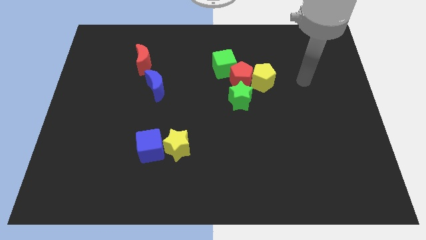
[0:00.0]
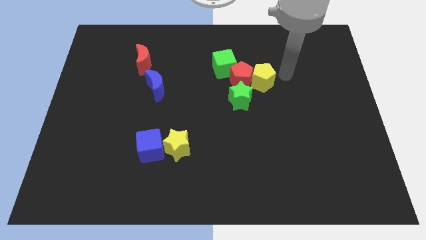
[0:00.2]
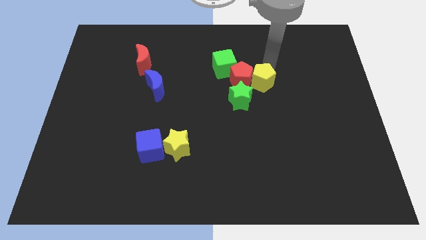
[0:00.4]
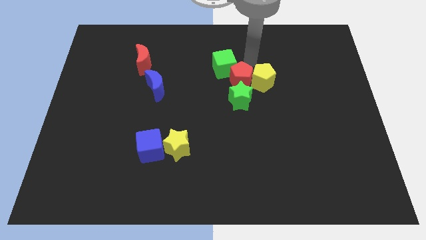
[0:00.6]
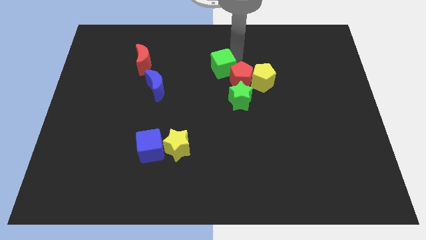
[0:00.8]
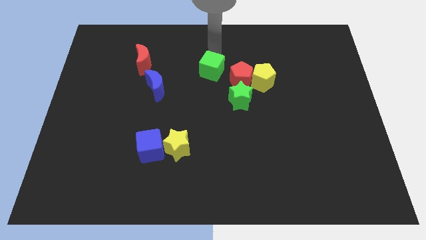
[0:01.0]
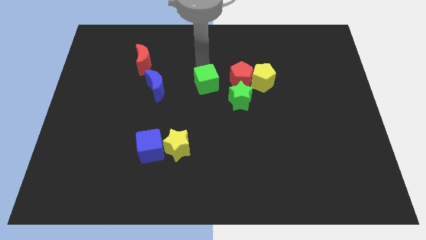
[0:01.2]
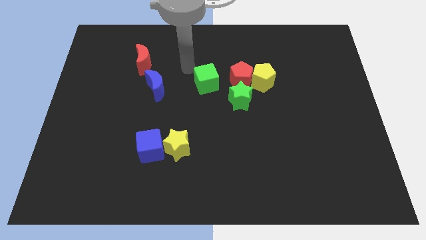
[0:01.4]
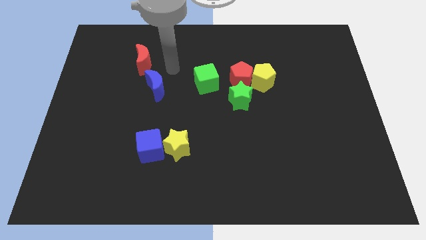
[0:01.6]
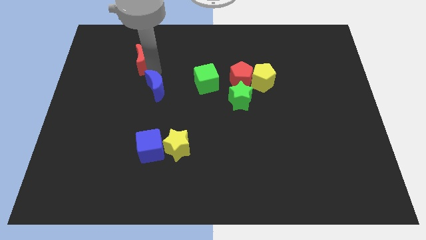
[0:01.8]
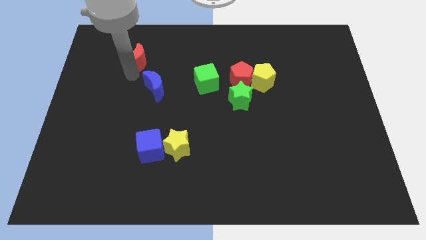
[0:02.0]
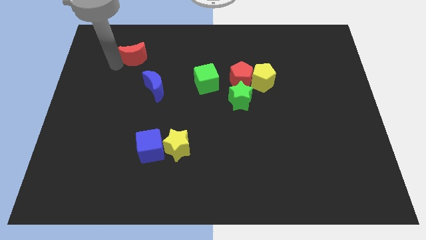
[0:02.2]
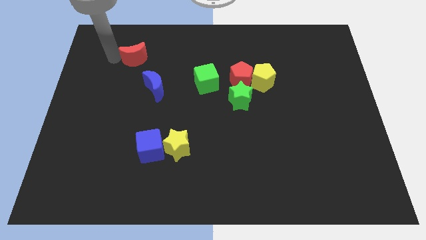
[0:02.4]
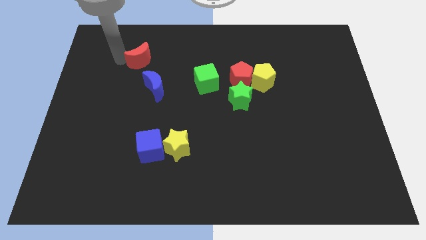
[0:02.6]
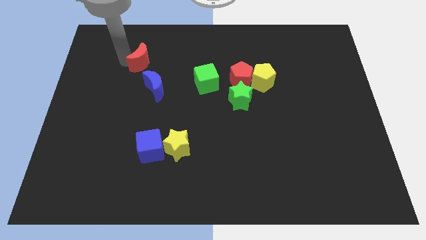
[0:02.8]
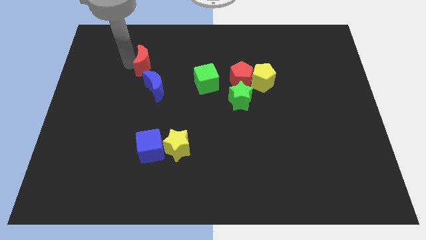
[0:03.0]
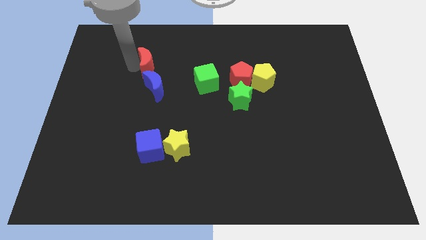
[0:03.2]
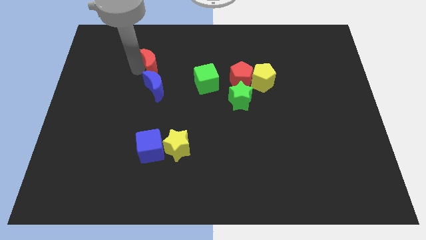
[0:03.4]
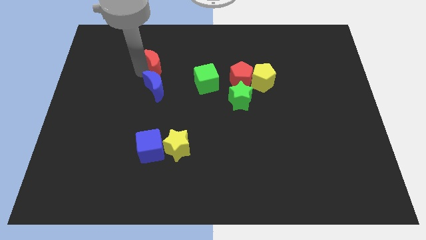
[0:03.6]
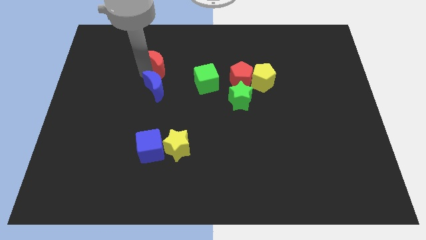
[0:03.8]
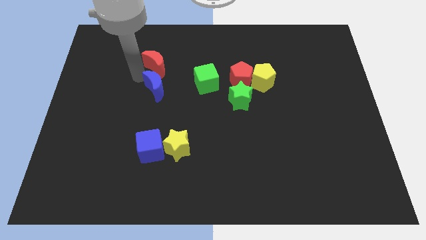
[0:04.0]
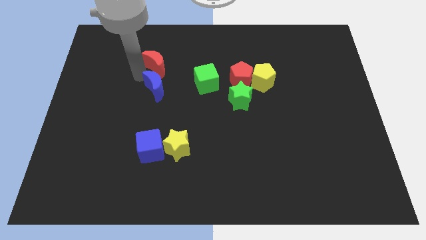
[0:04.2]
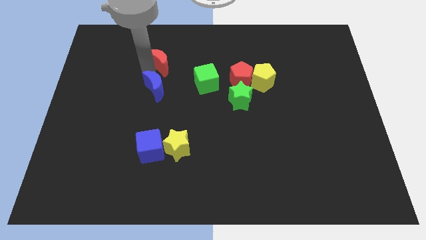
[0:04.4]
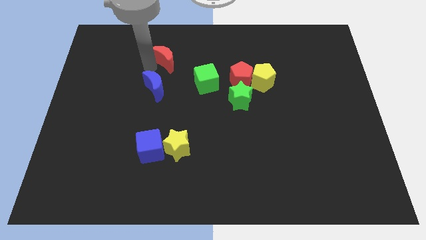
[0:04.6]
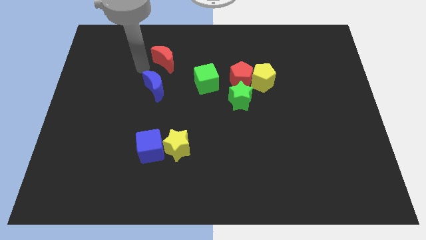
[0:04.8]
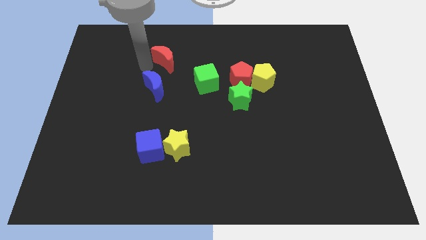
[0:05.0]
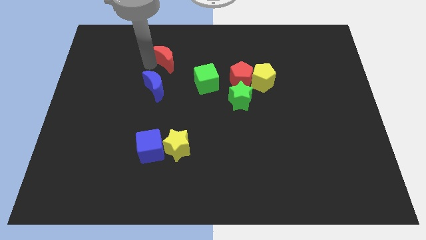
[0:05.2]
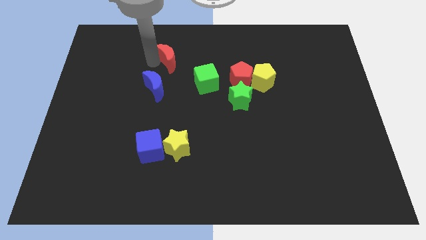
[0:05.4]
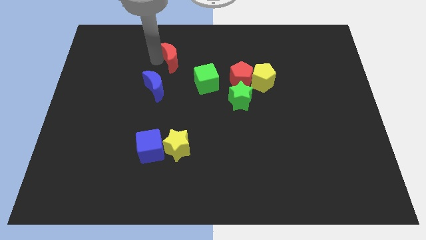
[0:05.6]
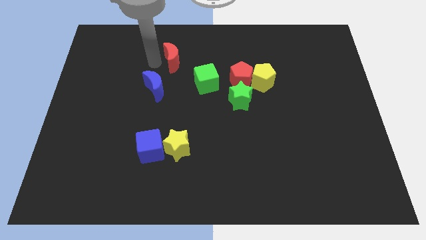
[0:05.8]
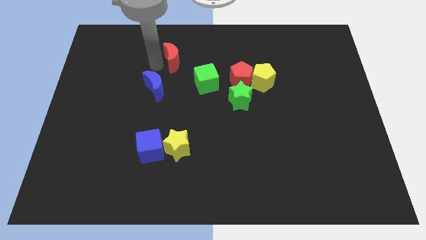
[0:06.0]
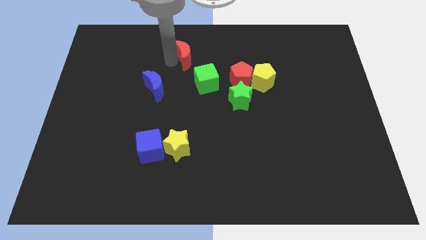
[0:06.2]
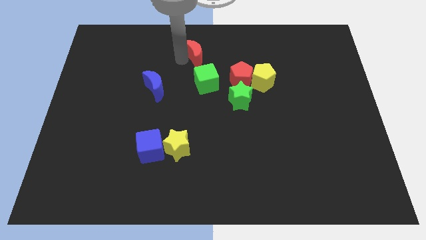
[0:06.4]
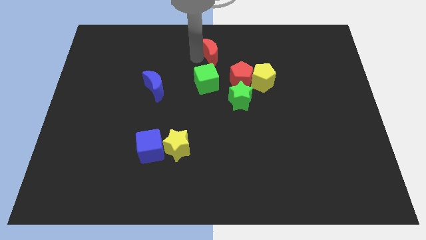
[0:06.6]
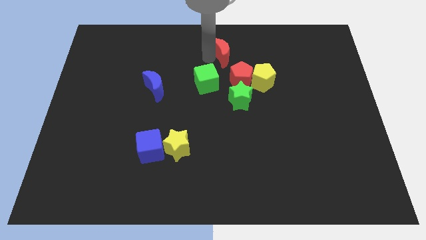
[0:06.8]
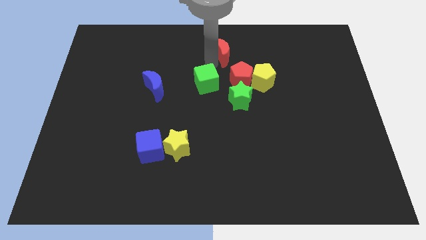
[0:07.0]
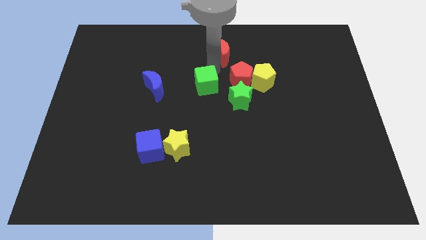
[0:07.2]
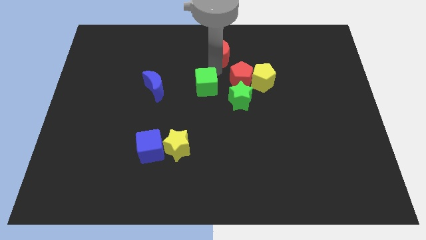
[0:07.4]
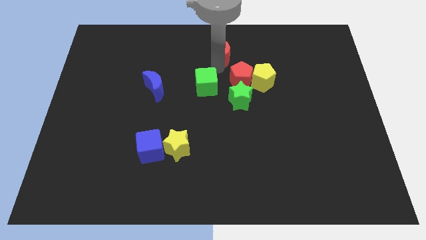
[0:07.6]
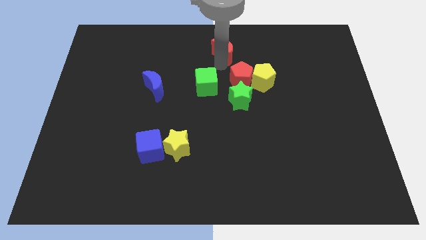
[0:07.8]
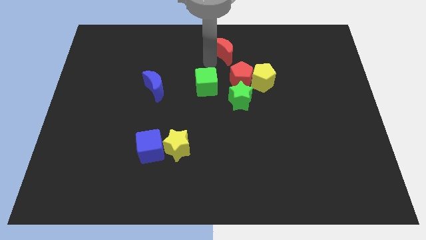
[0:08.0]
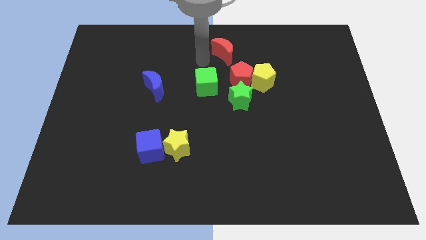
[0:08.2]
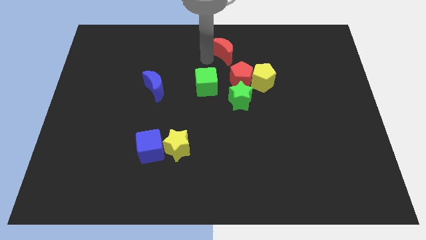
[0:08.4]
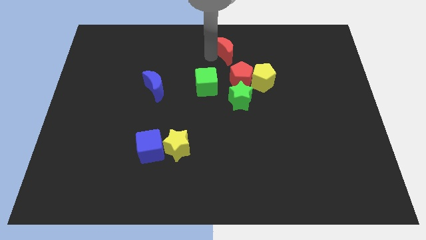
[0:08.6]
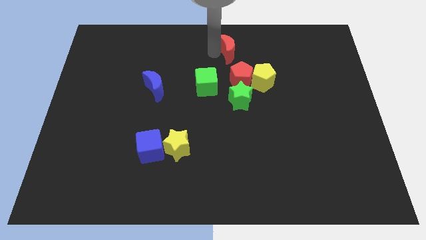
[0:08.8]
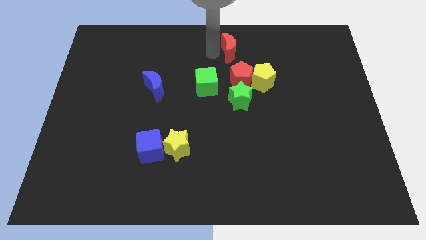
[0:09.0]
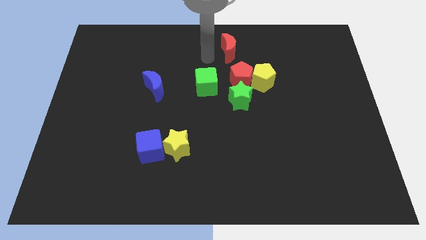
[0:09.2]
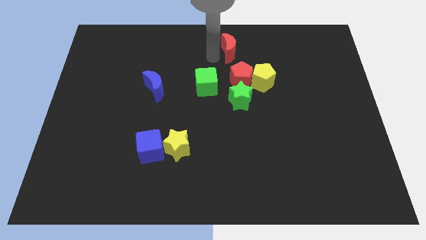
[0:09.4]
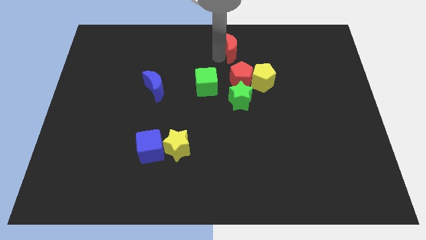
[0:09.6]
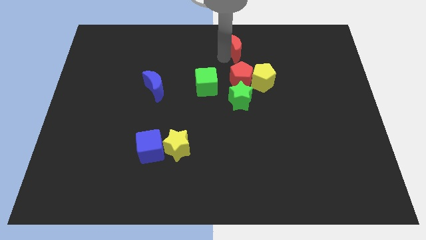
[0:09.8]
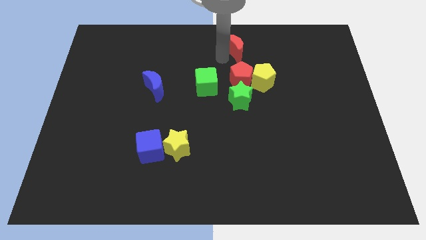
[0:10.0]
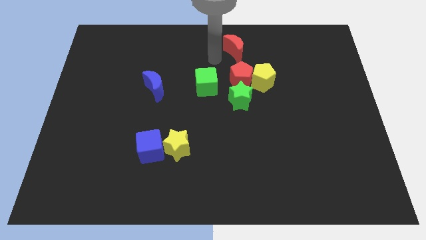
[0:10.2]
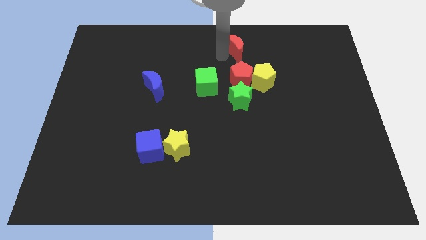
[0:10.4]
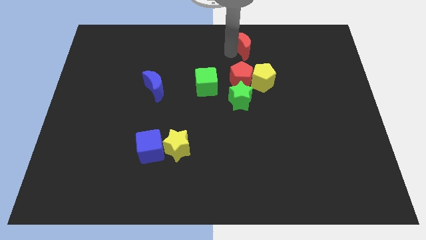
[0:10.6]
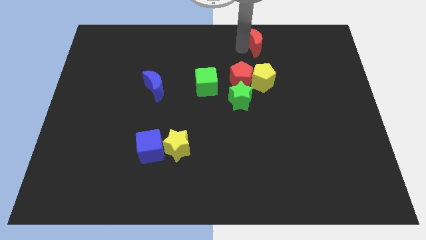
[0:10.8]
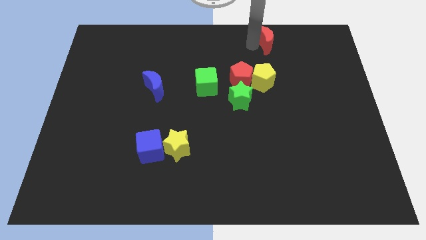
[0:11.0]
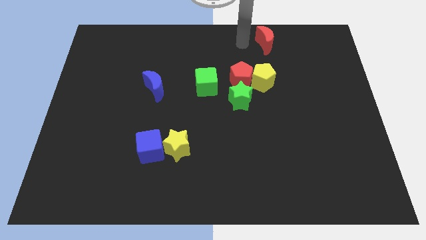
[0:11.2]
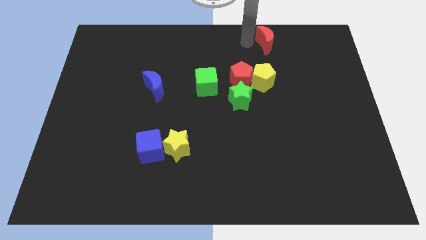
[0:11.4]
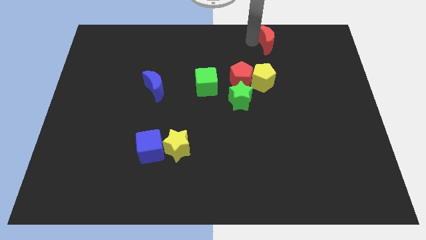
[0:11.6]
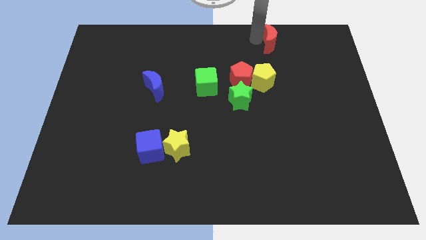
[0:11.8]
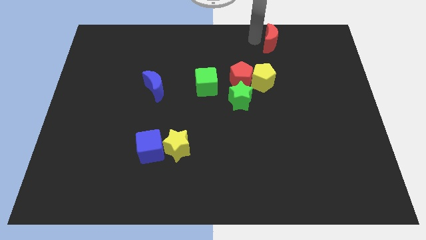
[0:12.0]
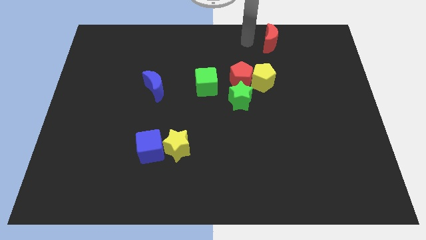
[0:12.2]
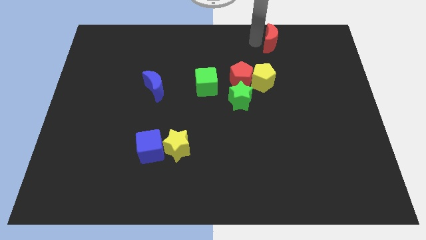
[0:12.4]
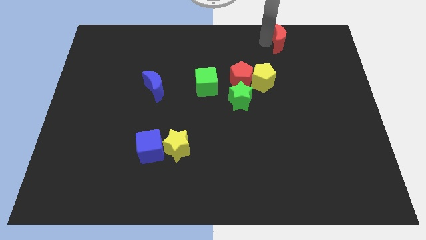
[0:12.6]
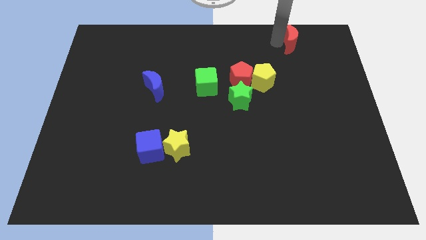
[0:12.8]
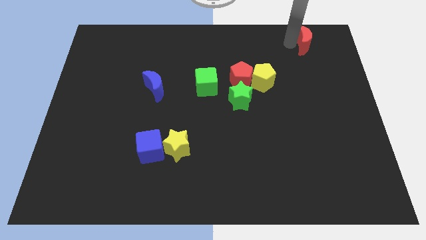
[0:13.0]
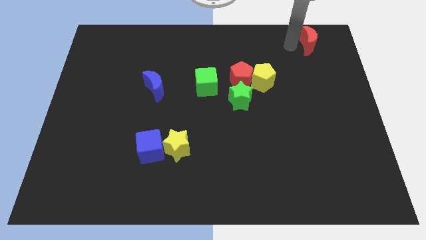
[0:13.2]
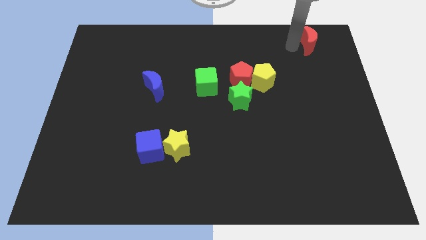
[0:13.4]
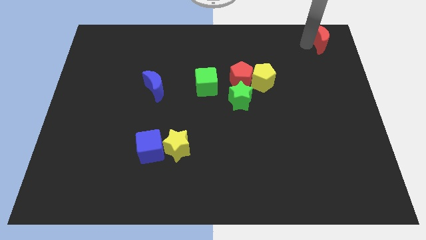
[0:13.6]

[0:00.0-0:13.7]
push the red moon to the top right corner

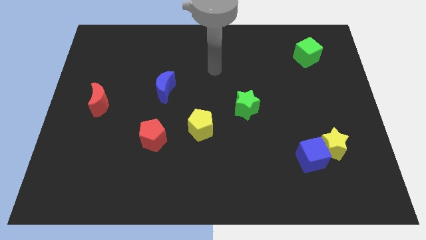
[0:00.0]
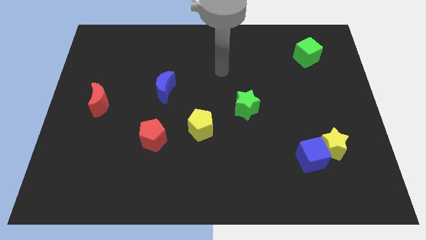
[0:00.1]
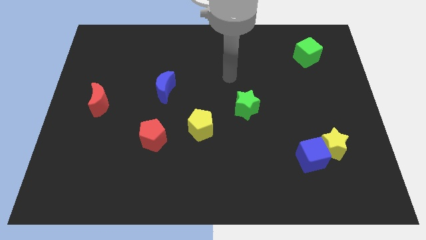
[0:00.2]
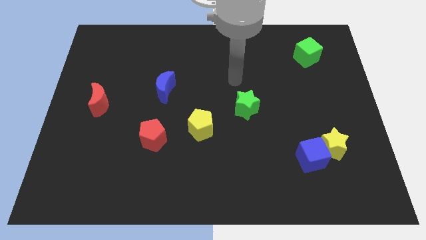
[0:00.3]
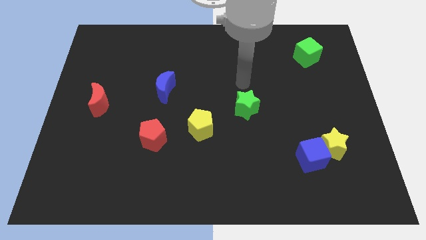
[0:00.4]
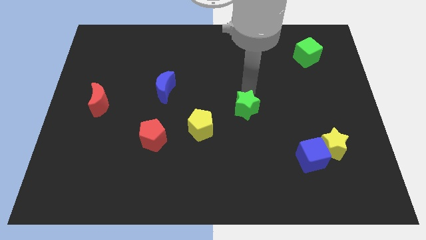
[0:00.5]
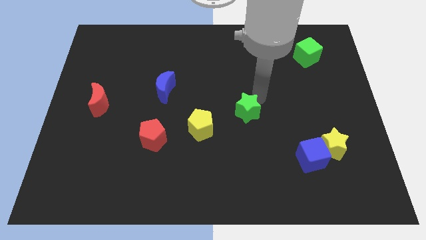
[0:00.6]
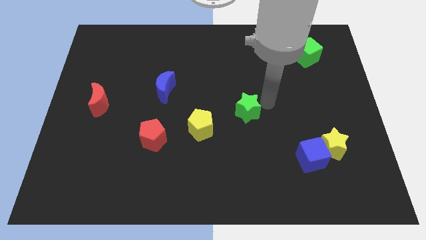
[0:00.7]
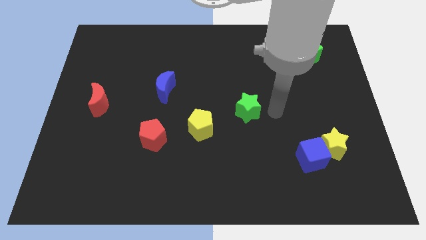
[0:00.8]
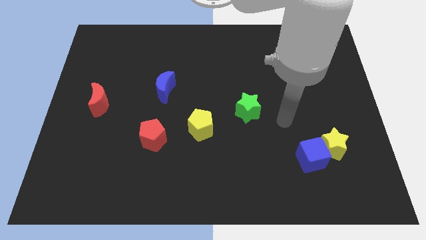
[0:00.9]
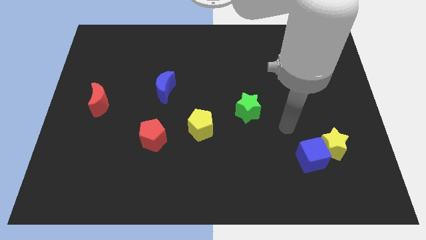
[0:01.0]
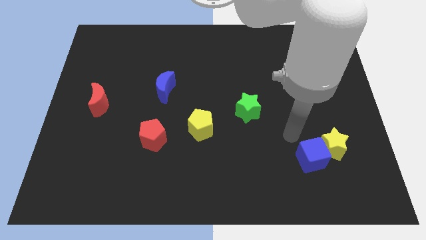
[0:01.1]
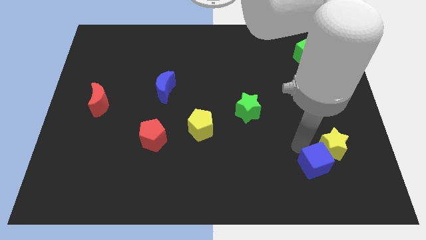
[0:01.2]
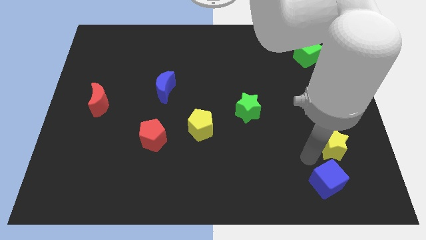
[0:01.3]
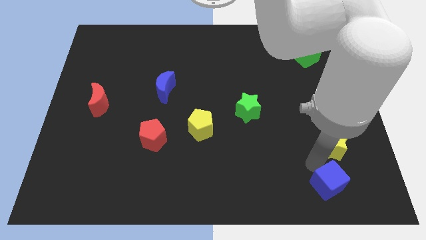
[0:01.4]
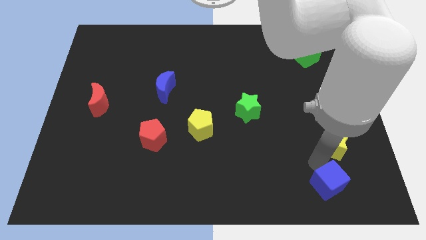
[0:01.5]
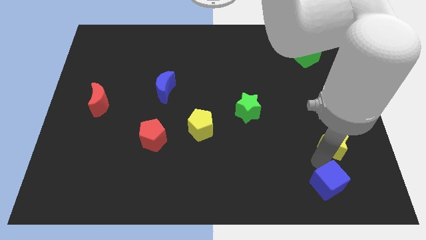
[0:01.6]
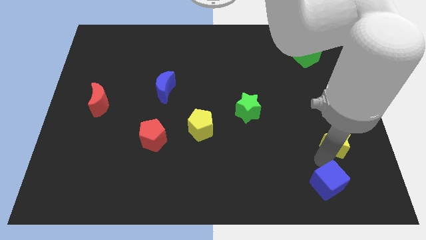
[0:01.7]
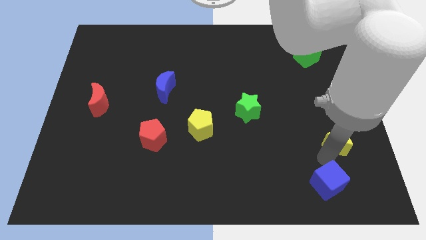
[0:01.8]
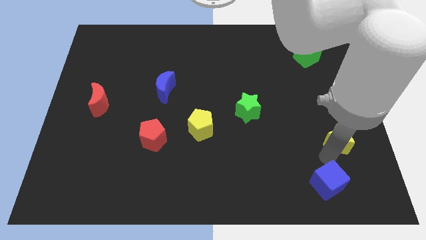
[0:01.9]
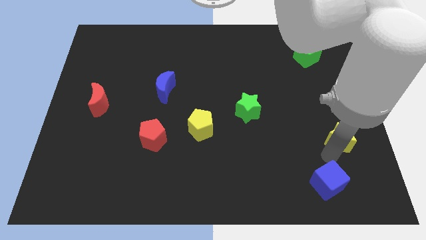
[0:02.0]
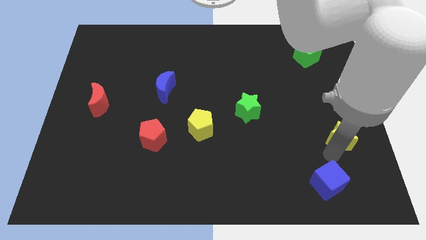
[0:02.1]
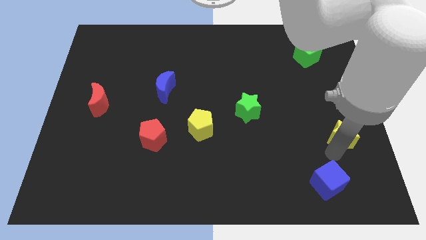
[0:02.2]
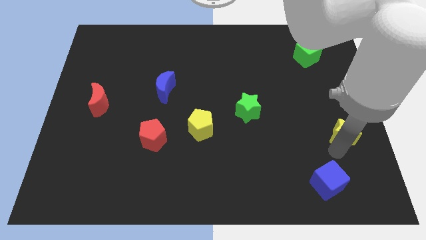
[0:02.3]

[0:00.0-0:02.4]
put the yellow star to the center right
